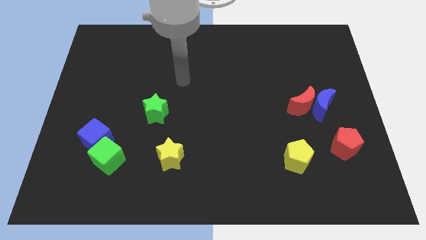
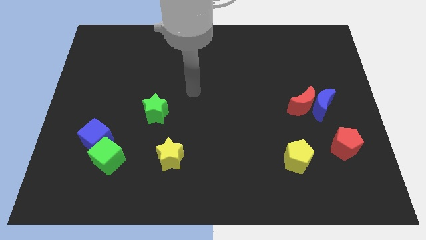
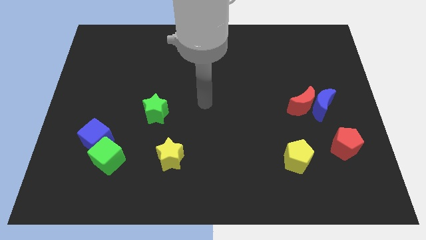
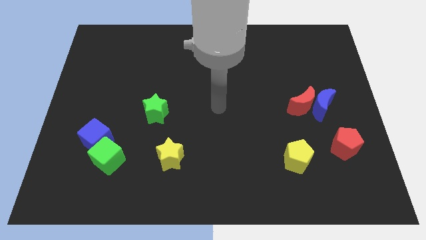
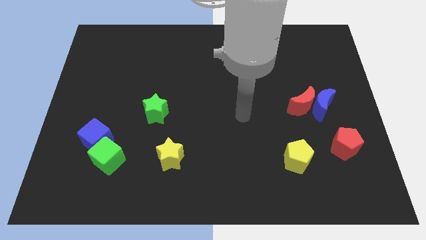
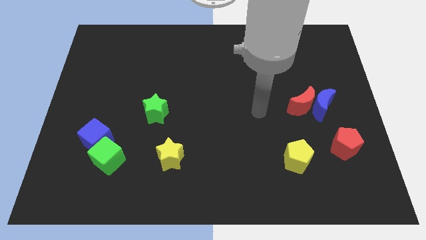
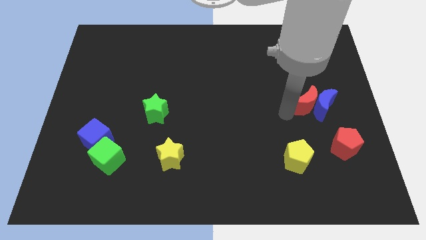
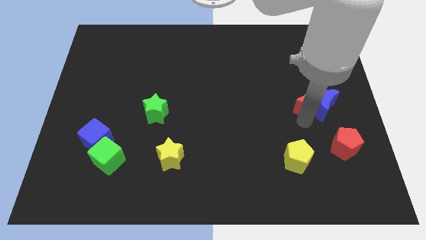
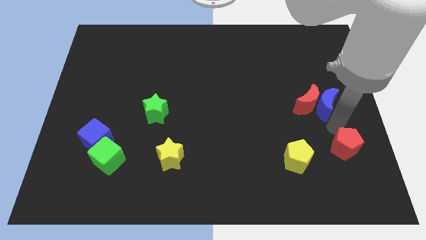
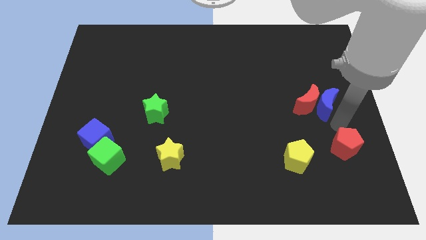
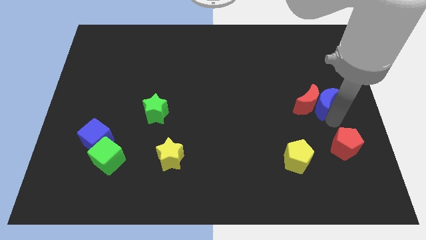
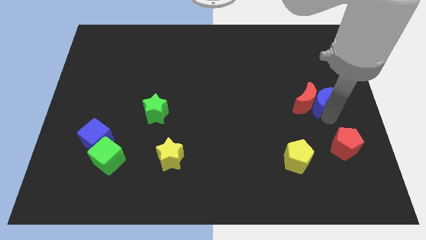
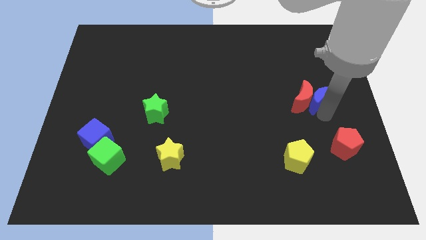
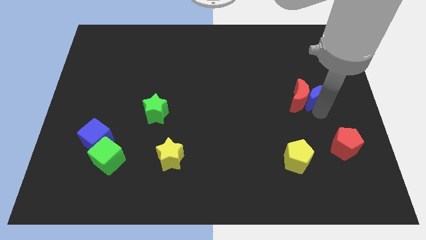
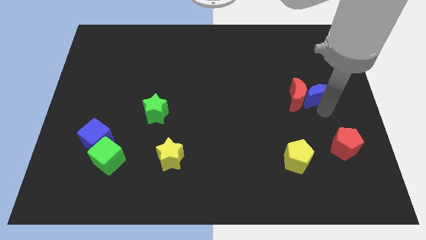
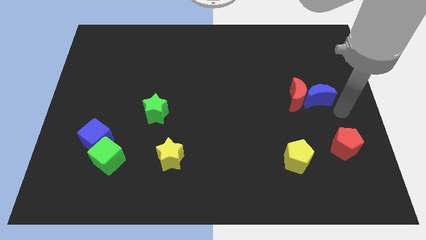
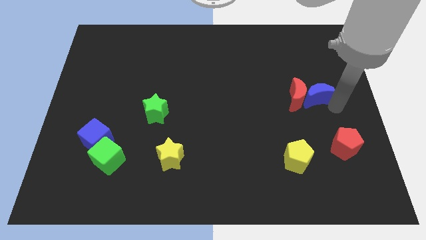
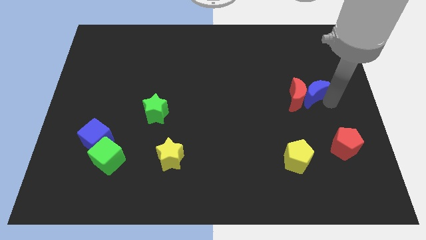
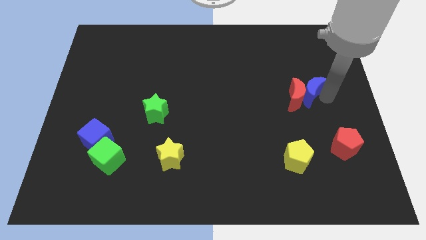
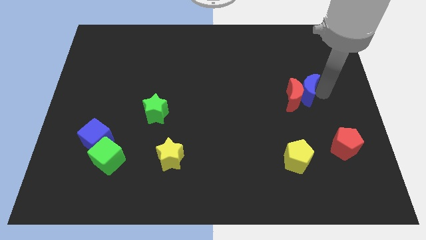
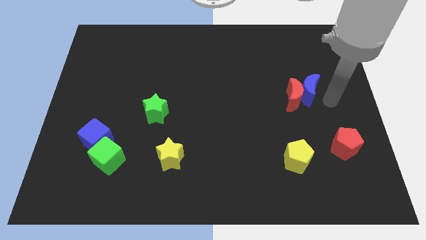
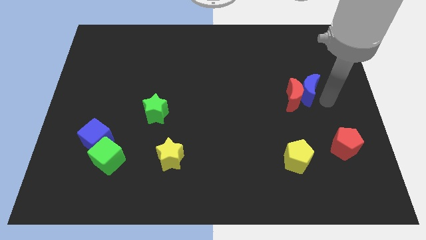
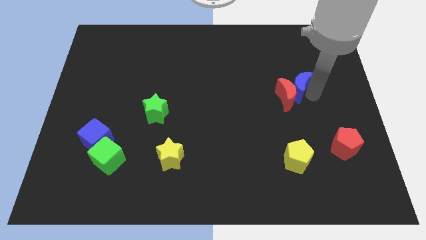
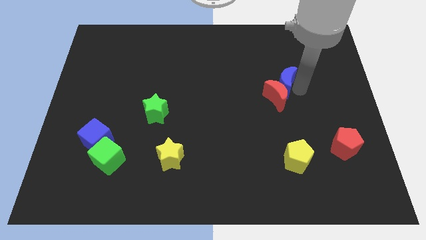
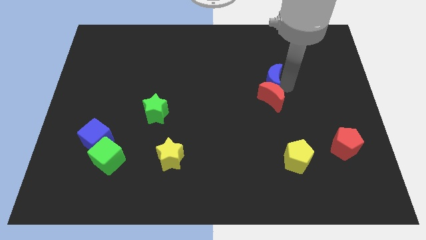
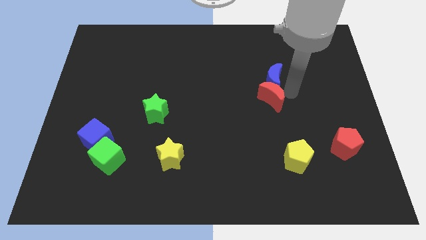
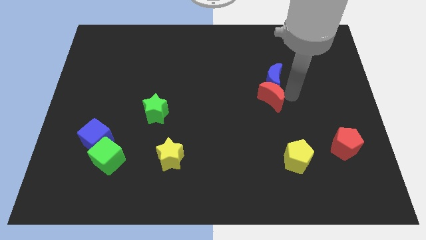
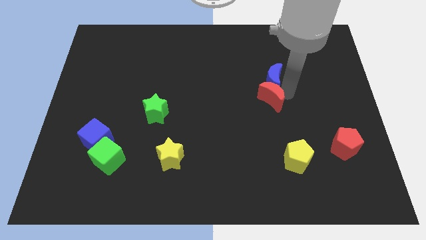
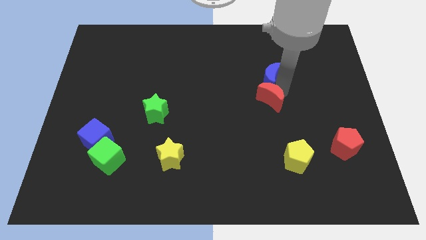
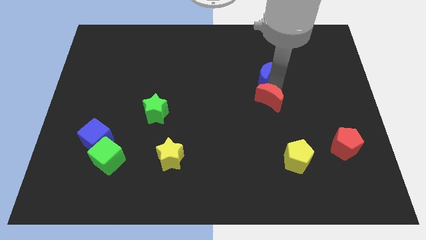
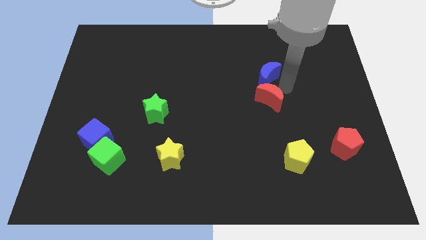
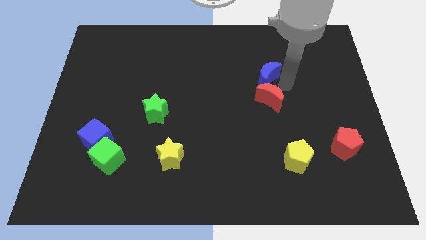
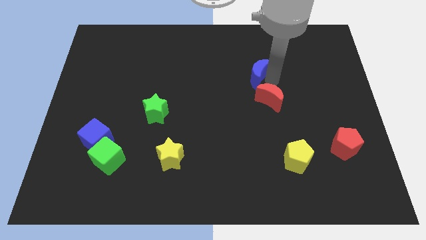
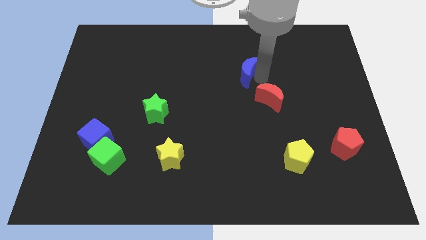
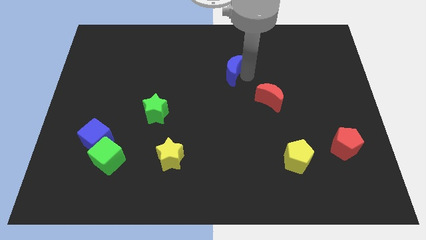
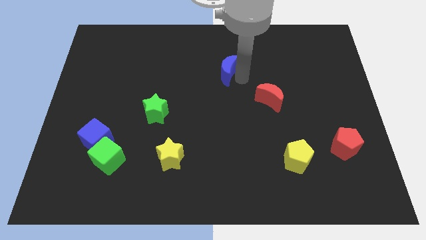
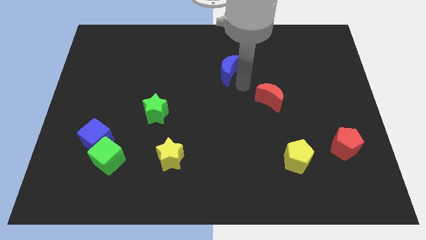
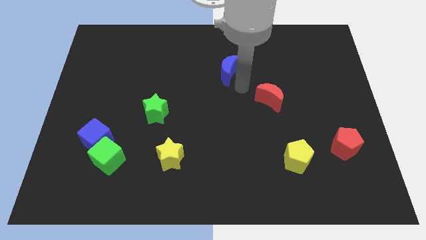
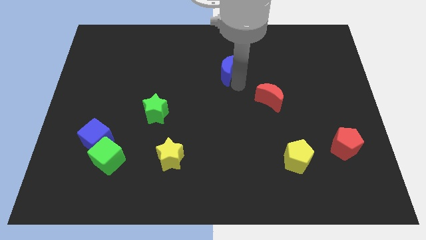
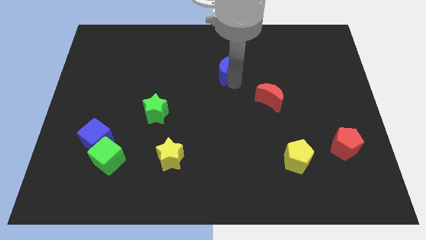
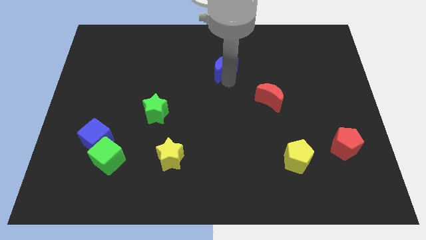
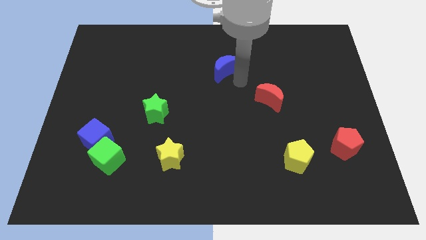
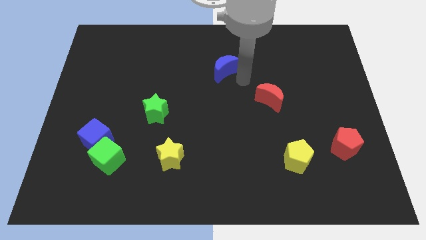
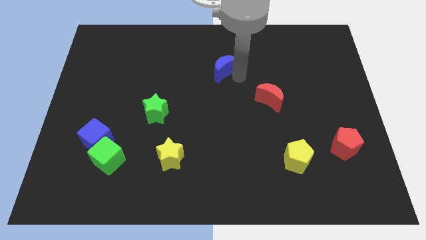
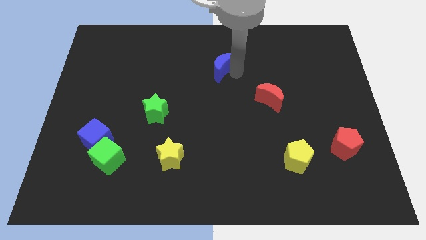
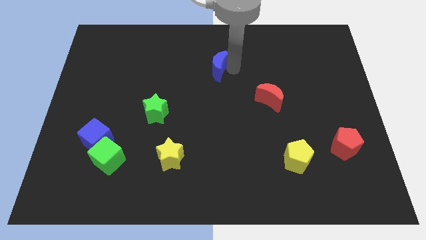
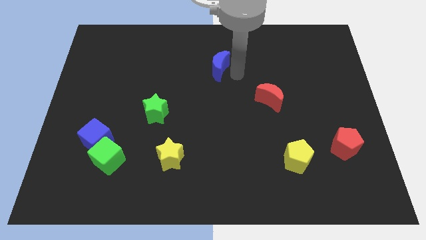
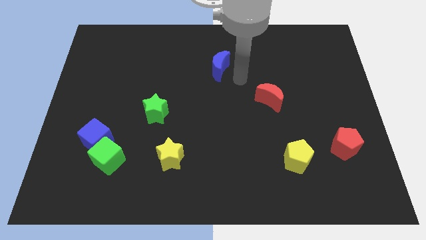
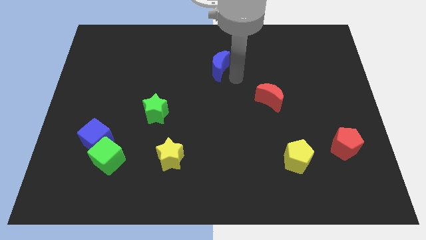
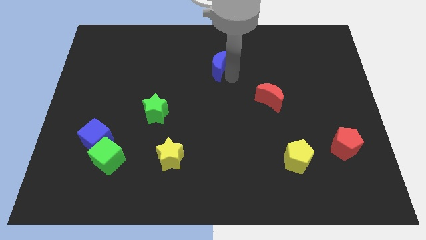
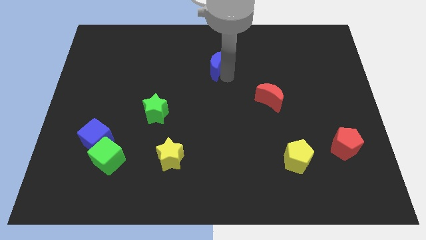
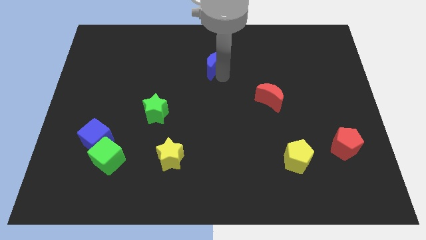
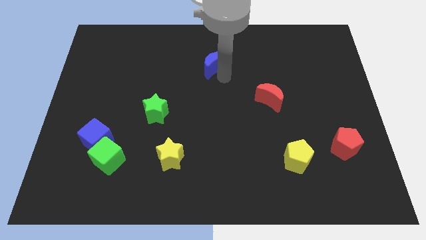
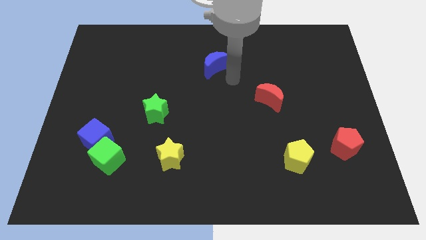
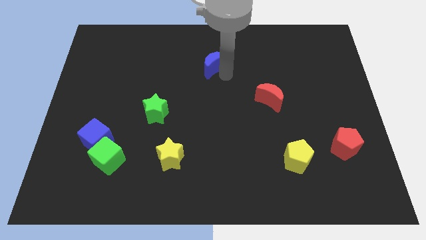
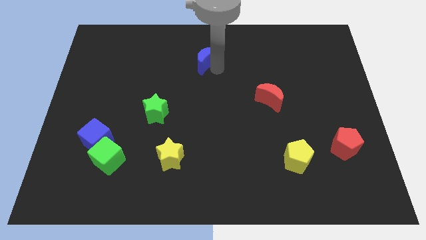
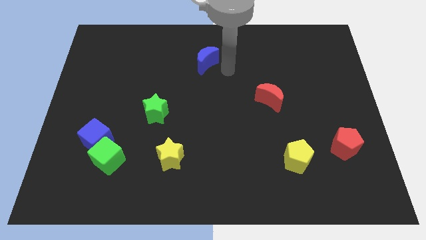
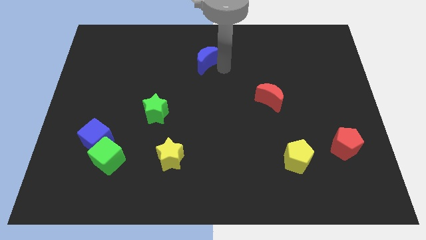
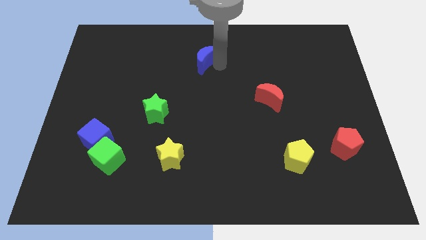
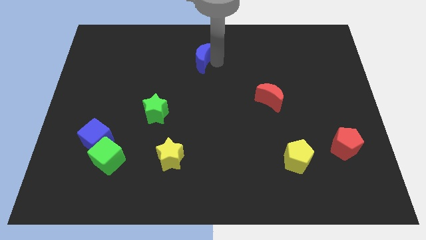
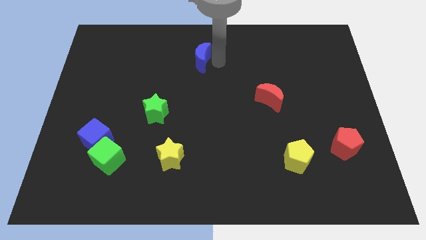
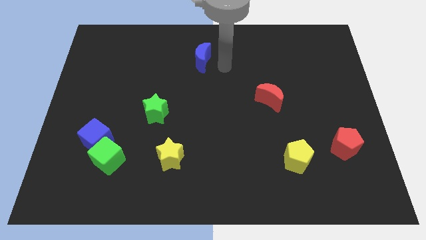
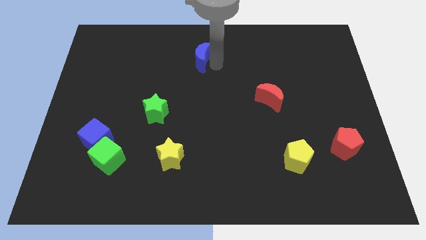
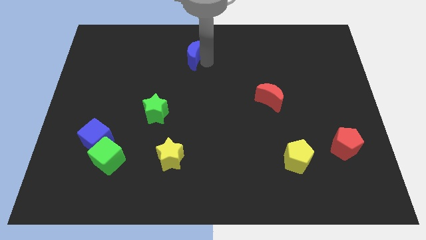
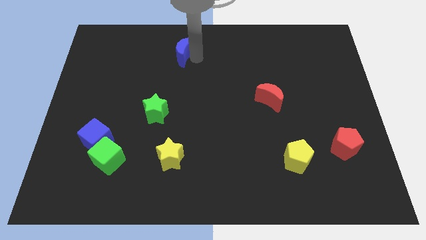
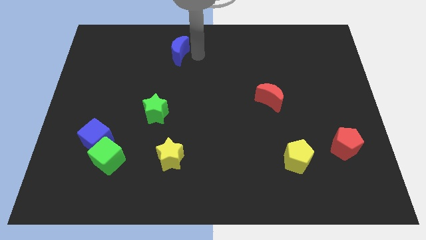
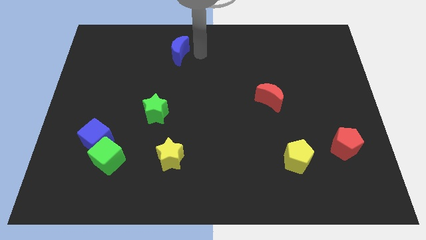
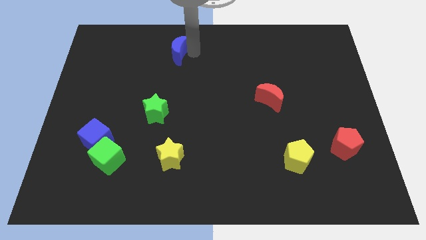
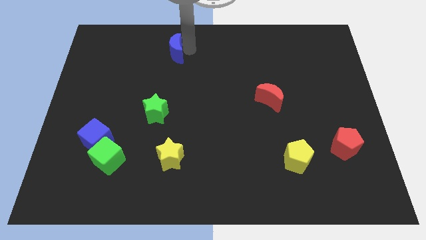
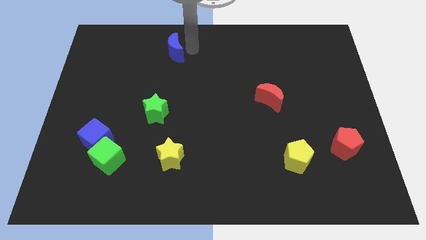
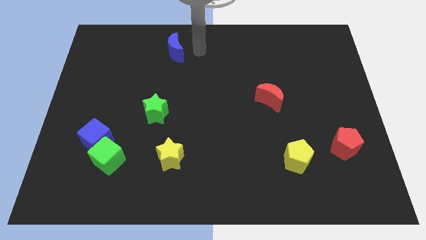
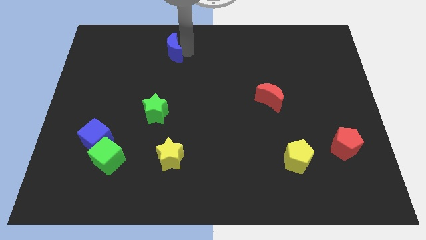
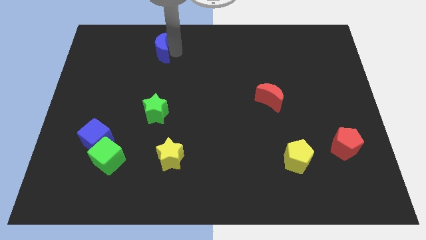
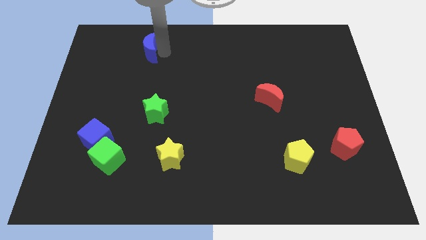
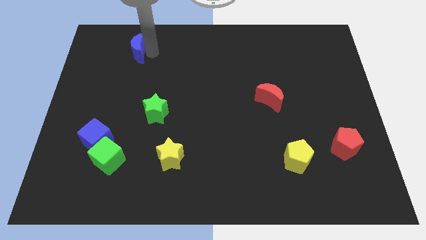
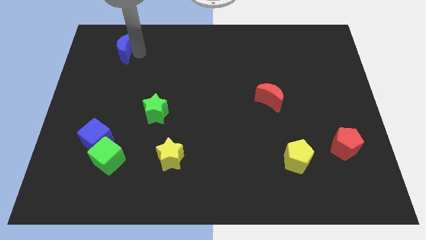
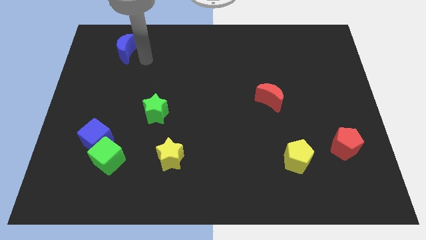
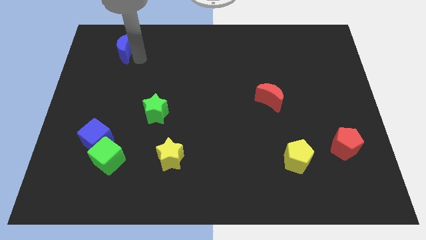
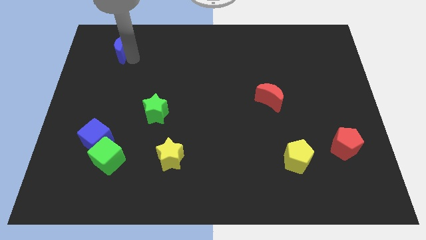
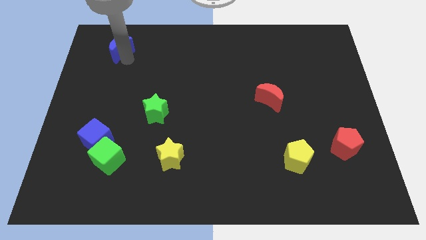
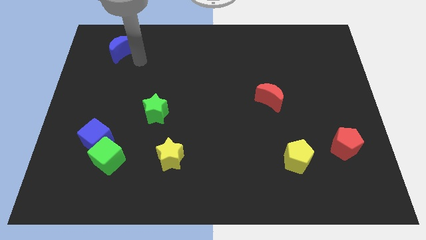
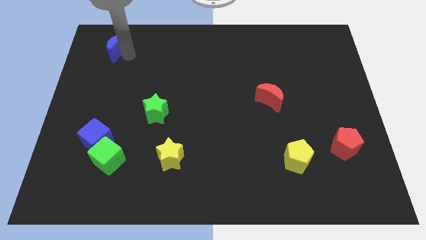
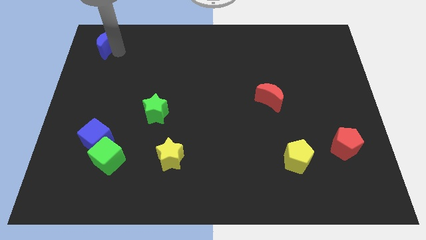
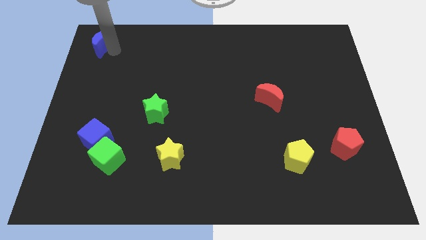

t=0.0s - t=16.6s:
move the blue moon to the upper left corner
